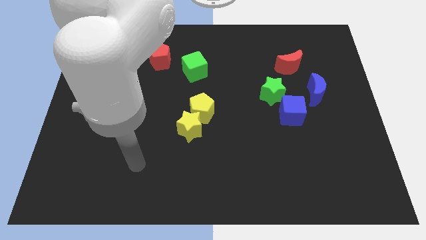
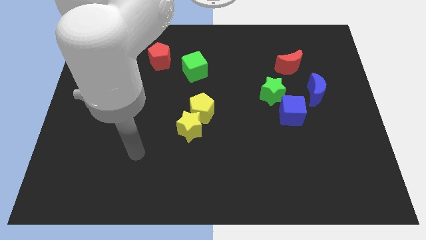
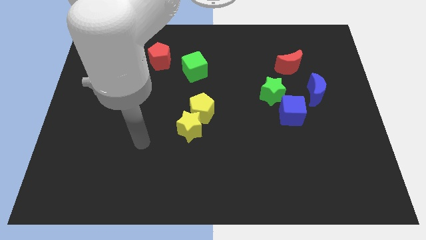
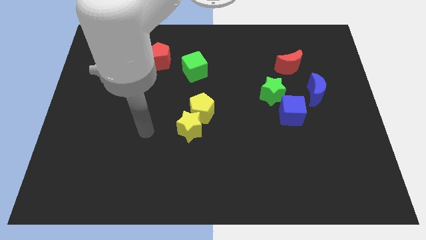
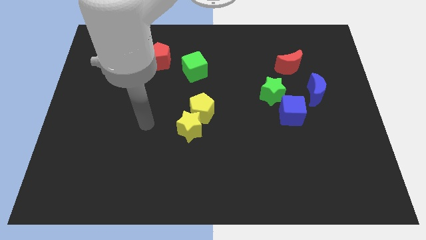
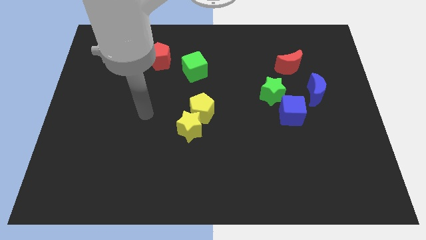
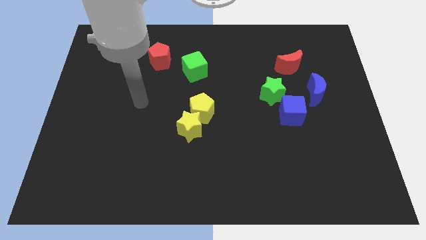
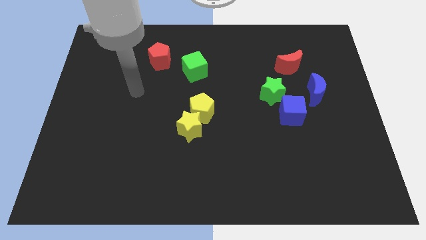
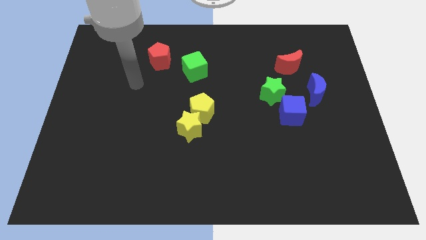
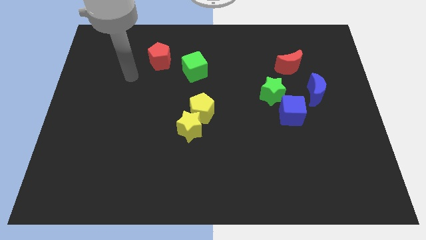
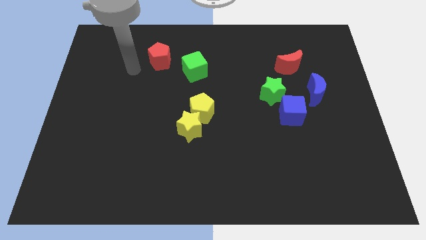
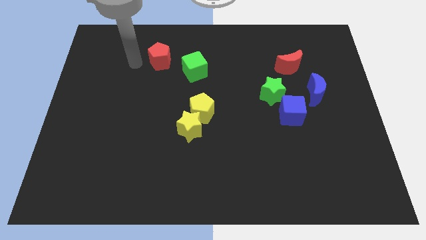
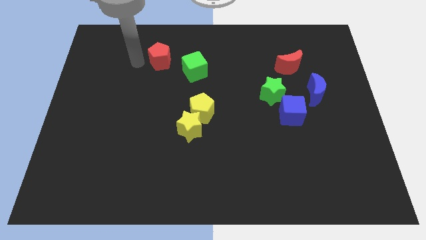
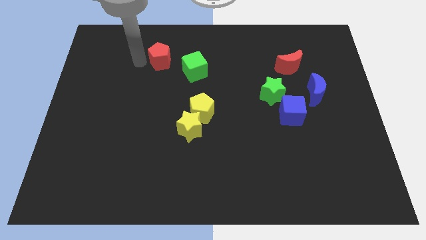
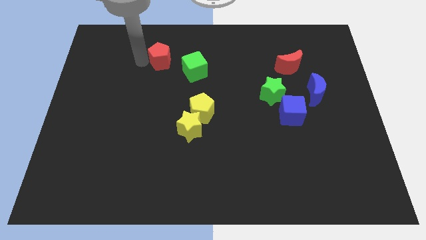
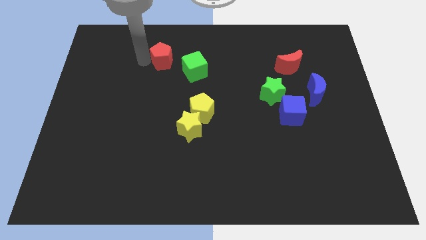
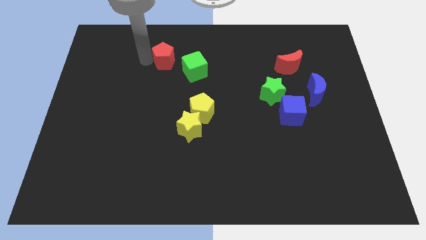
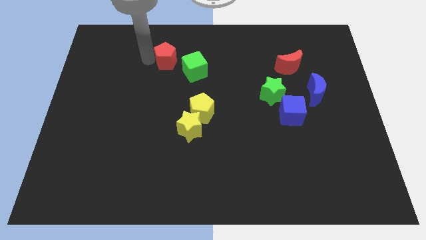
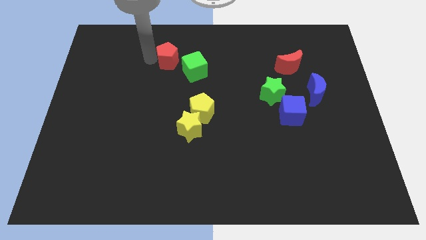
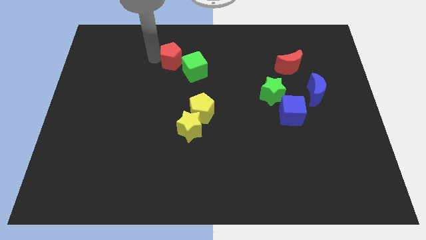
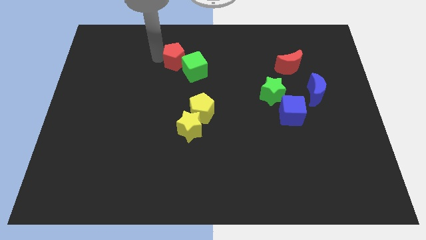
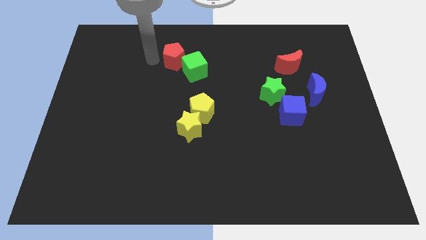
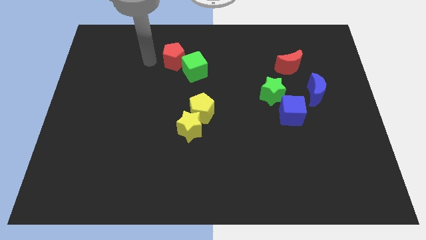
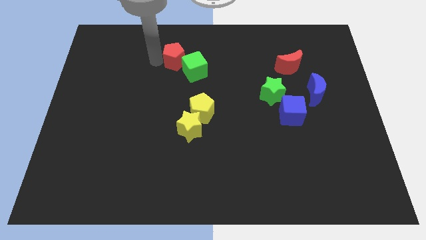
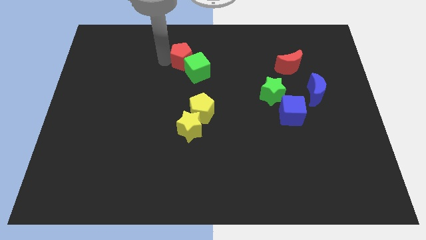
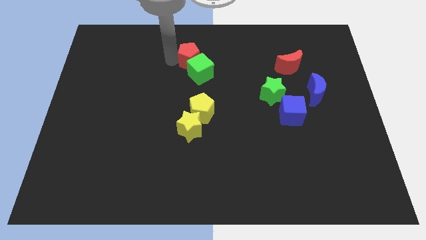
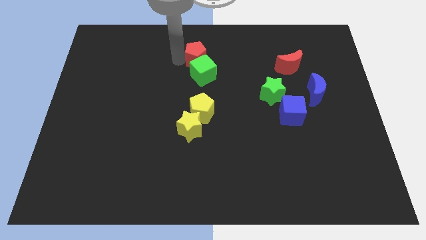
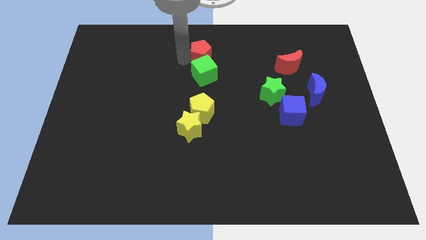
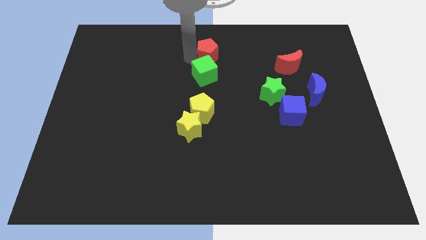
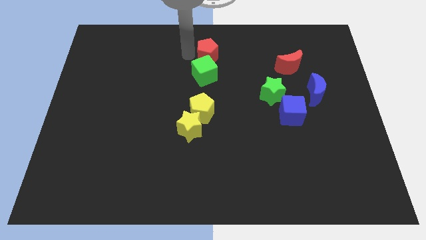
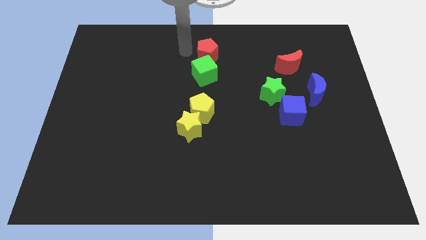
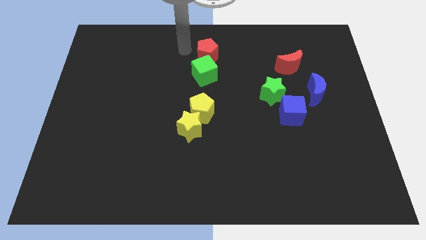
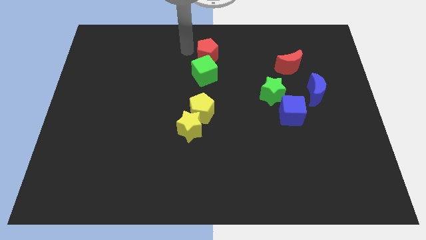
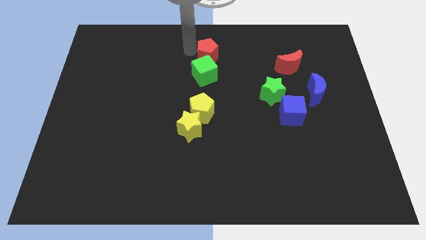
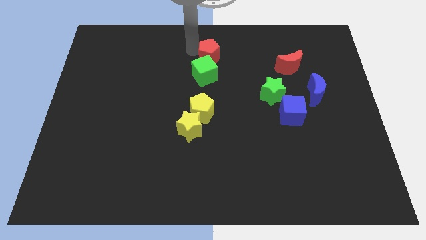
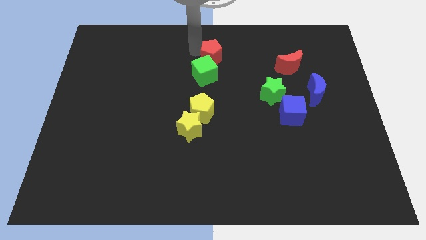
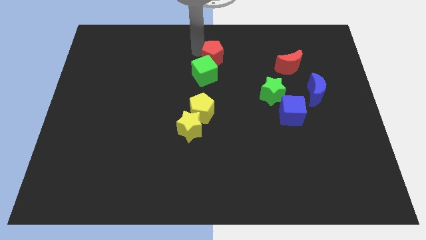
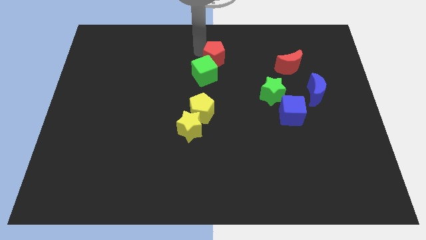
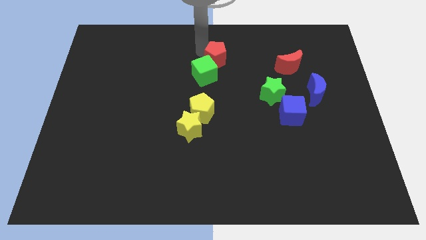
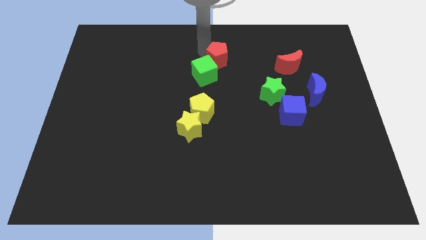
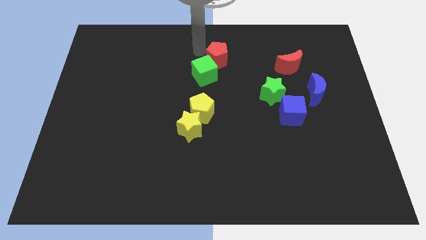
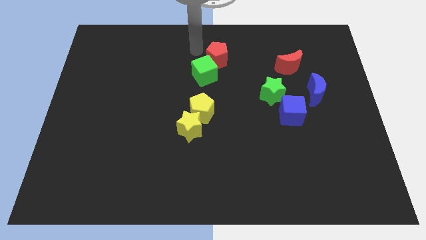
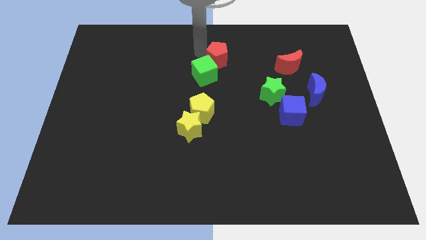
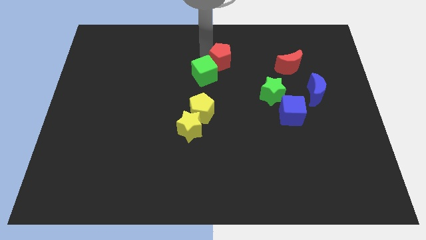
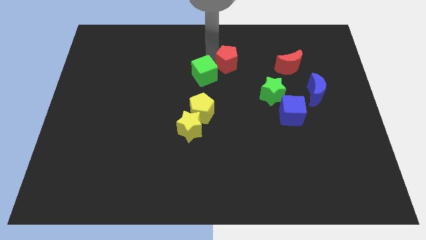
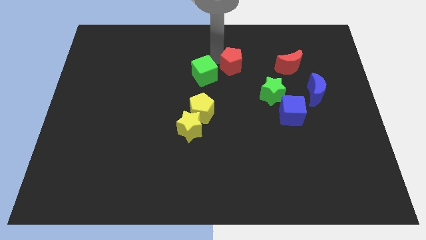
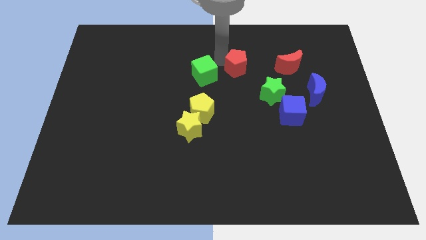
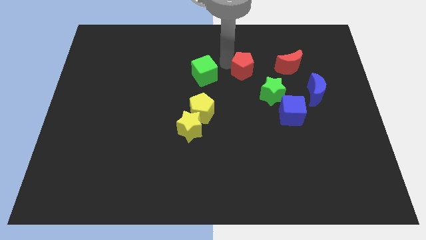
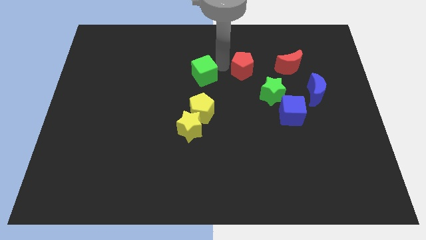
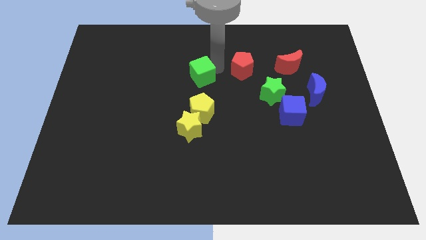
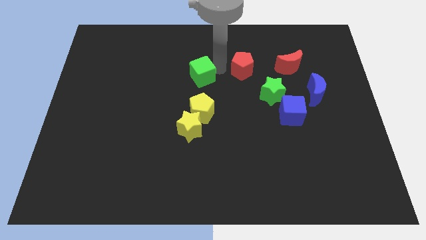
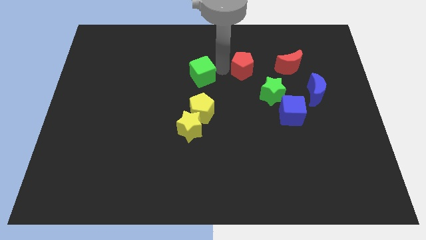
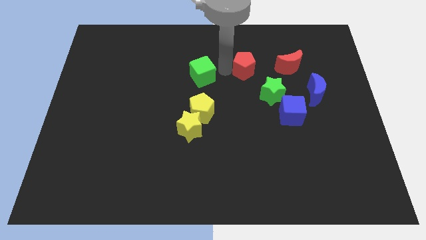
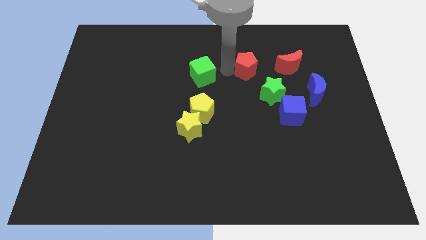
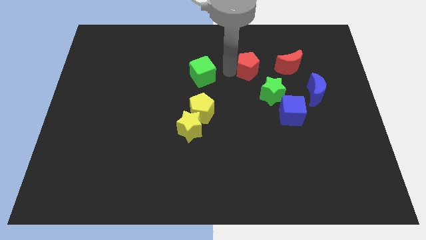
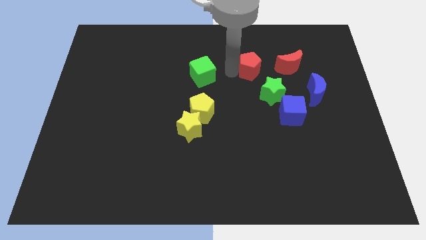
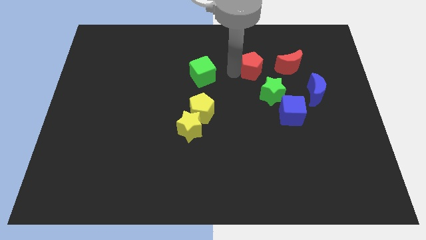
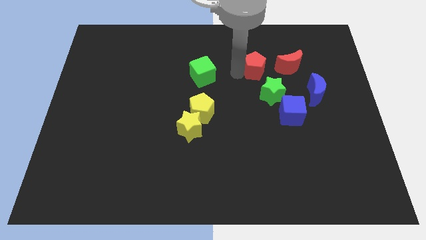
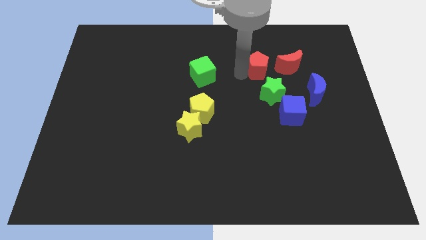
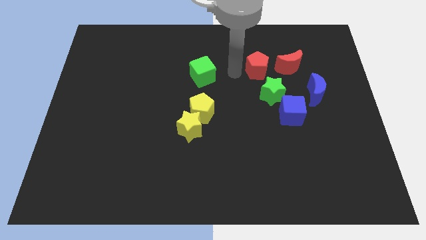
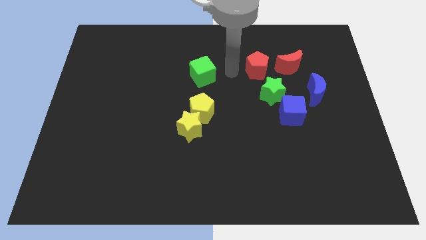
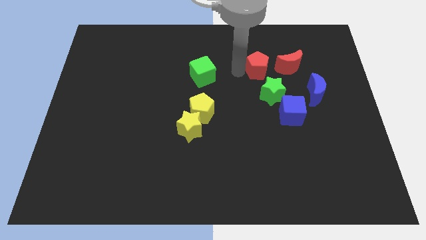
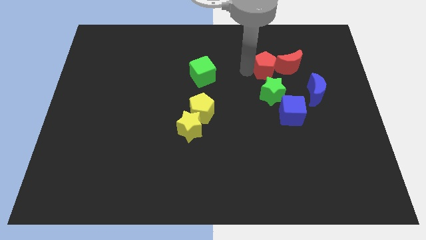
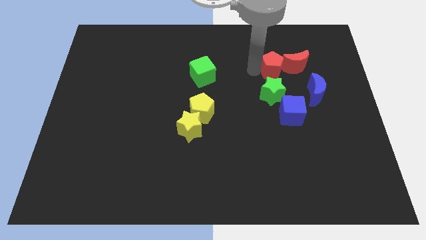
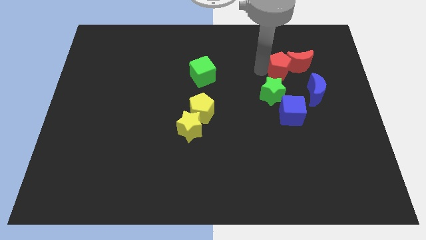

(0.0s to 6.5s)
move the red pentagon close to the red moon
